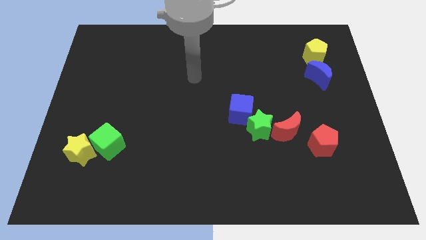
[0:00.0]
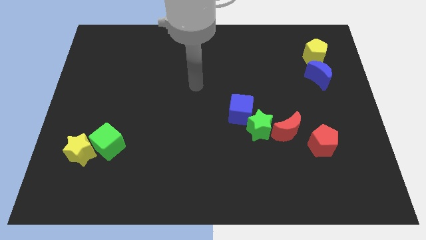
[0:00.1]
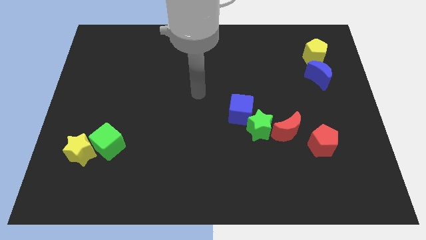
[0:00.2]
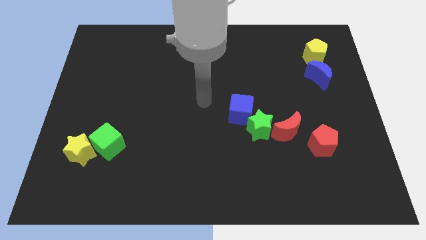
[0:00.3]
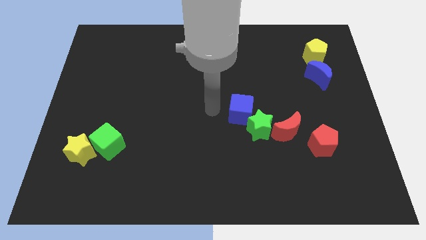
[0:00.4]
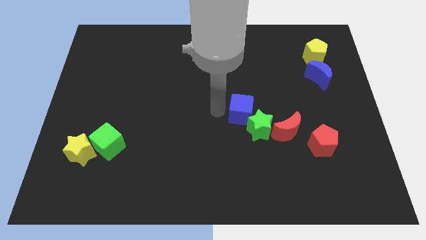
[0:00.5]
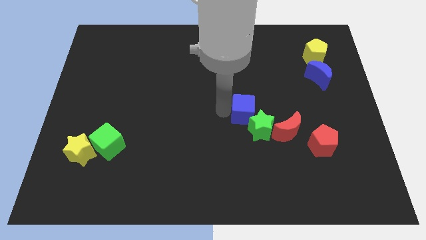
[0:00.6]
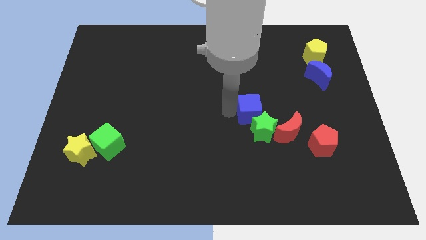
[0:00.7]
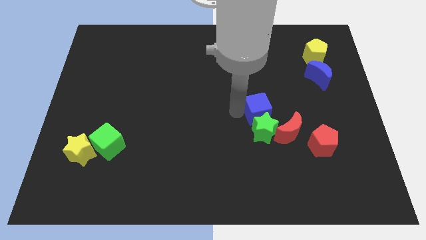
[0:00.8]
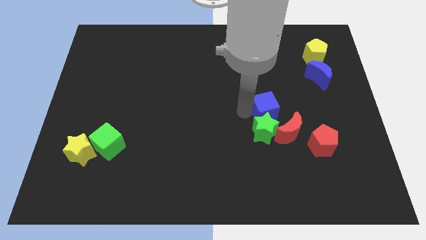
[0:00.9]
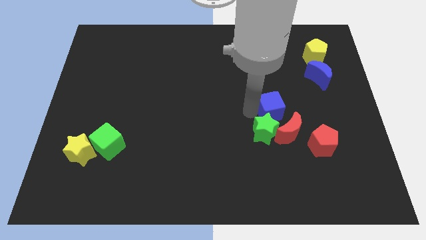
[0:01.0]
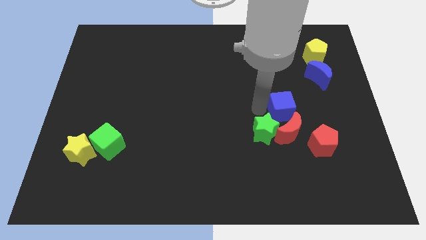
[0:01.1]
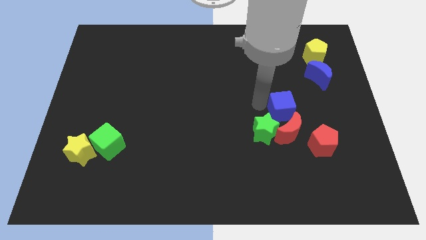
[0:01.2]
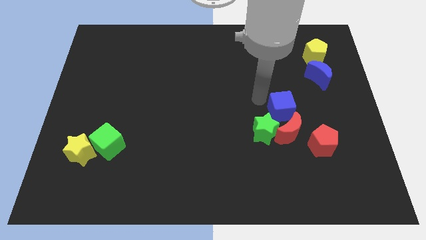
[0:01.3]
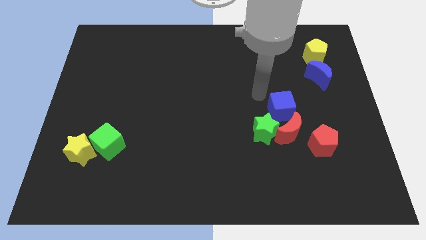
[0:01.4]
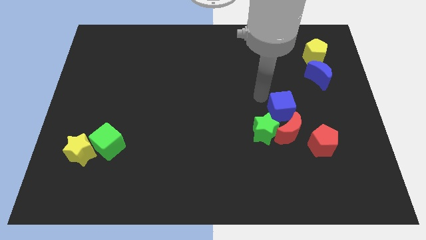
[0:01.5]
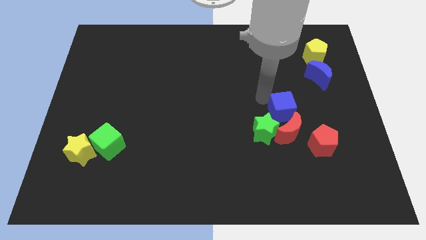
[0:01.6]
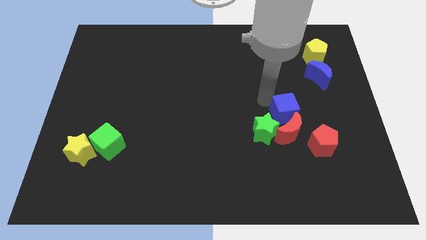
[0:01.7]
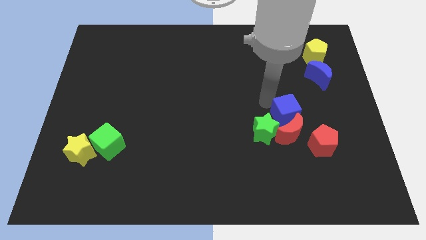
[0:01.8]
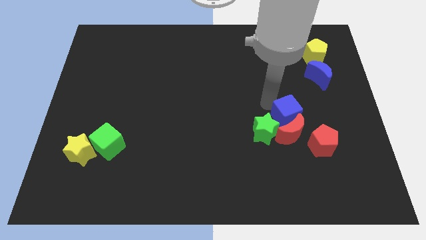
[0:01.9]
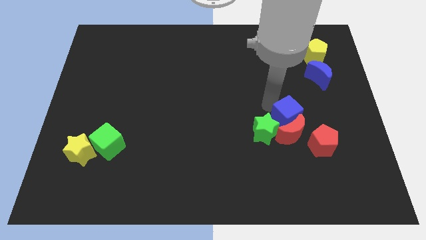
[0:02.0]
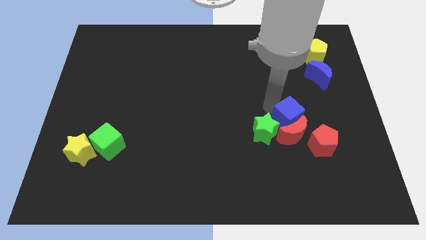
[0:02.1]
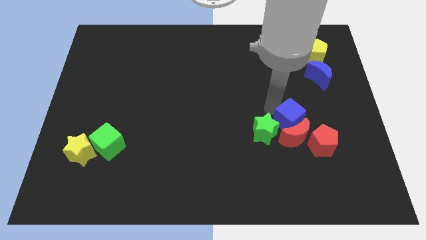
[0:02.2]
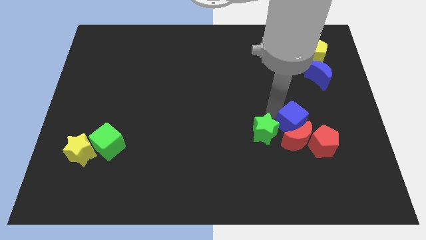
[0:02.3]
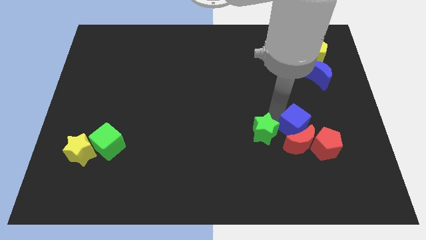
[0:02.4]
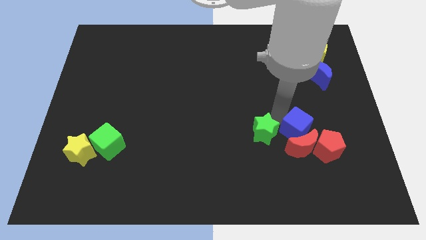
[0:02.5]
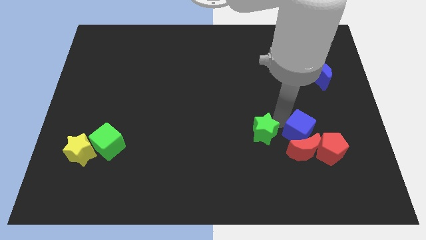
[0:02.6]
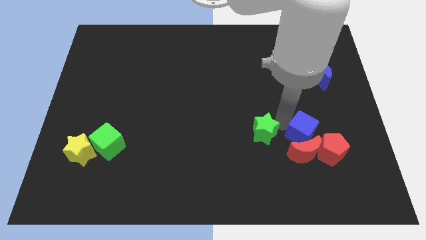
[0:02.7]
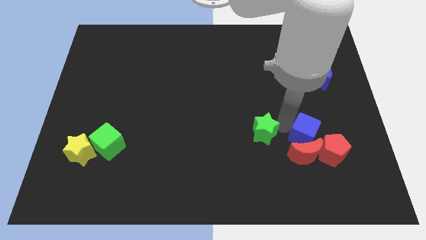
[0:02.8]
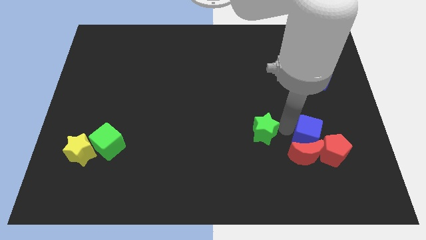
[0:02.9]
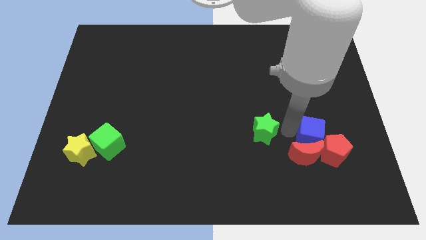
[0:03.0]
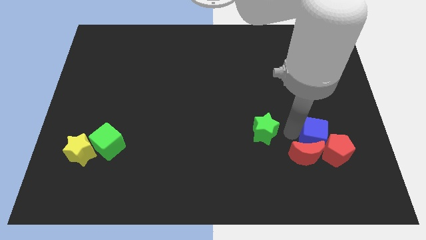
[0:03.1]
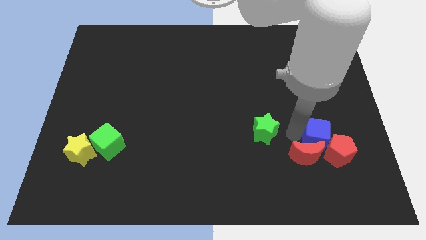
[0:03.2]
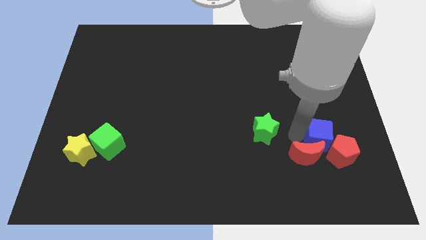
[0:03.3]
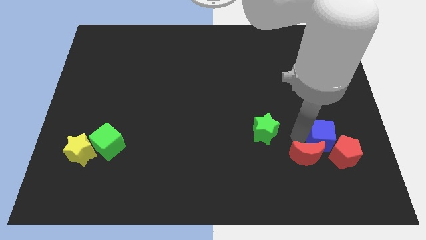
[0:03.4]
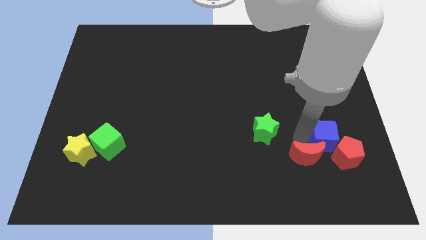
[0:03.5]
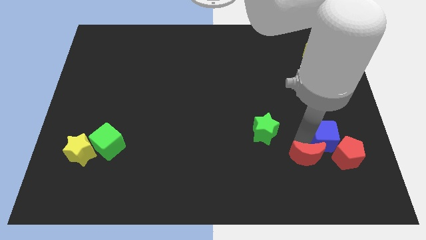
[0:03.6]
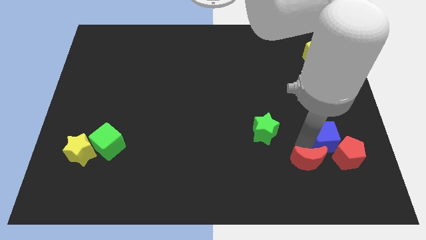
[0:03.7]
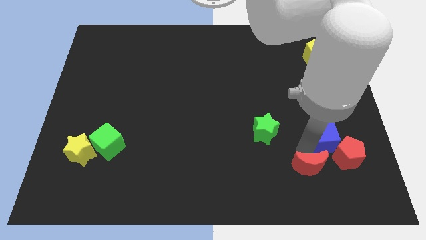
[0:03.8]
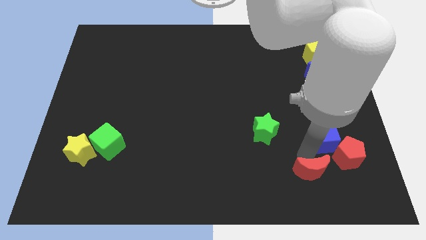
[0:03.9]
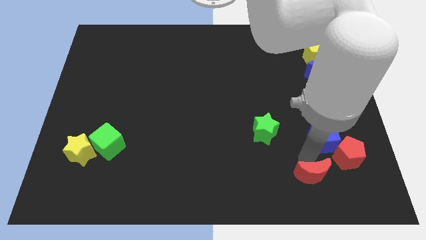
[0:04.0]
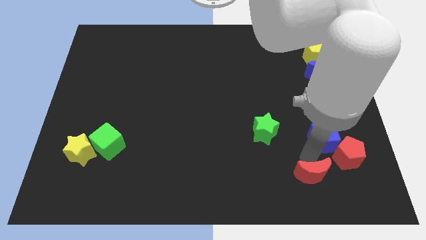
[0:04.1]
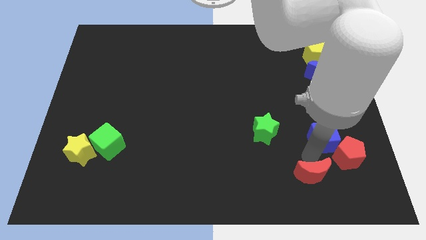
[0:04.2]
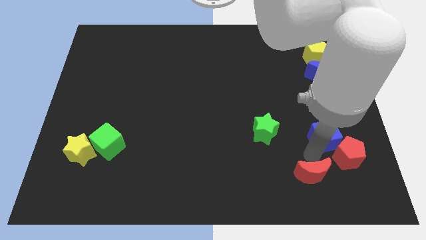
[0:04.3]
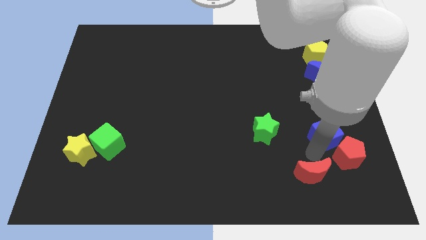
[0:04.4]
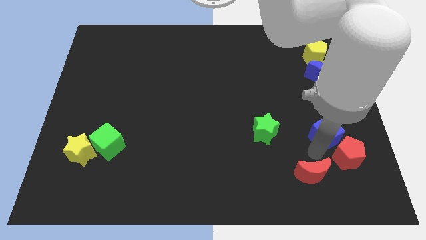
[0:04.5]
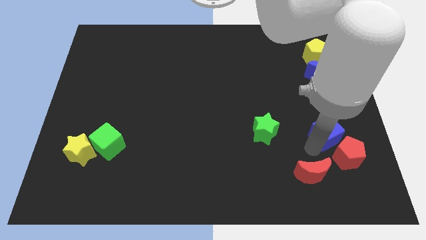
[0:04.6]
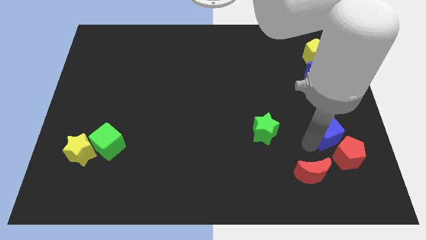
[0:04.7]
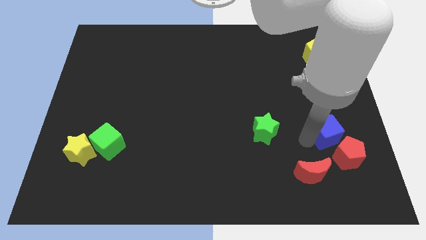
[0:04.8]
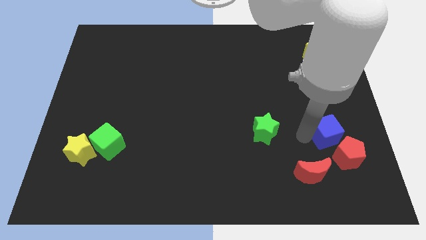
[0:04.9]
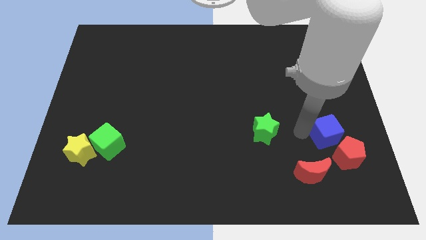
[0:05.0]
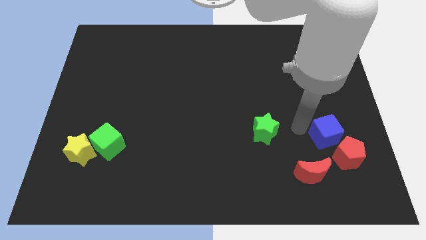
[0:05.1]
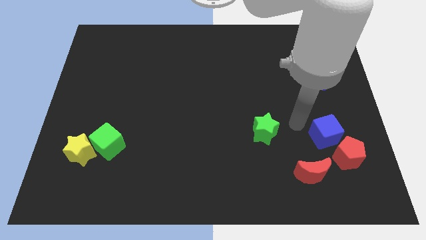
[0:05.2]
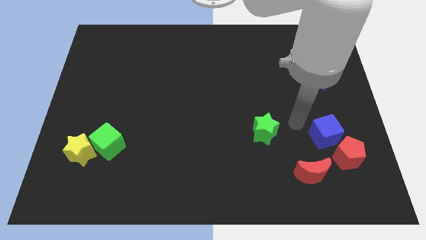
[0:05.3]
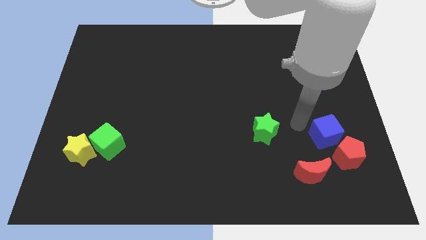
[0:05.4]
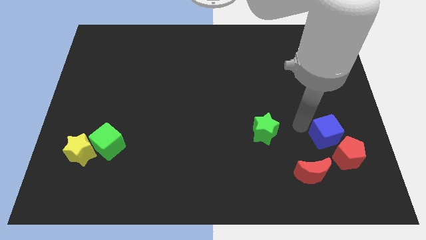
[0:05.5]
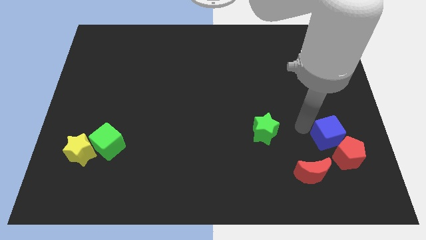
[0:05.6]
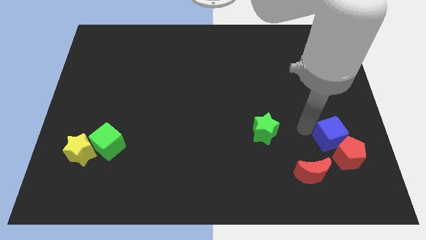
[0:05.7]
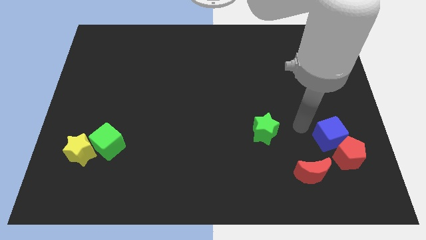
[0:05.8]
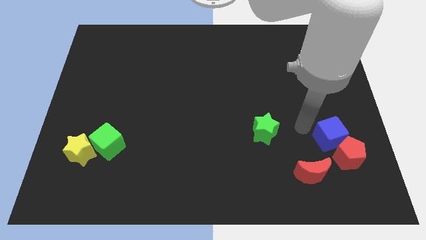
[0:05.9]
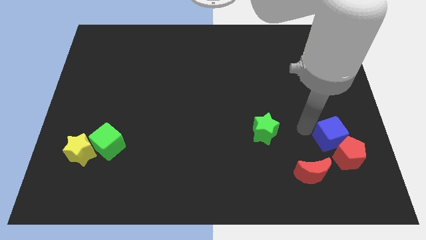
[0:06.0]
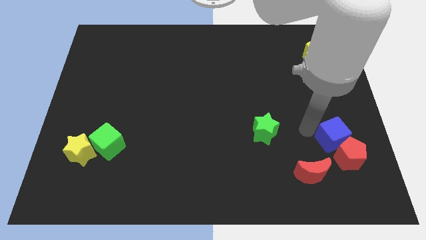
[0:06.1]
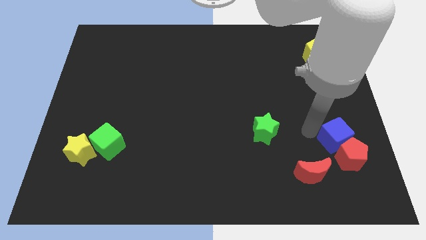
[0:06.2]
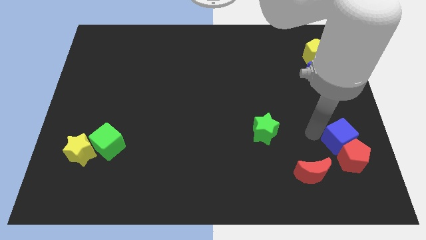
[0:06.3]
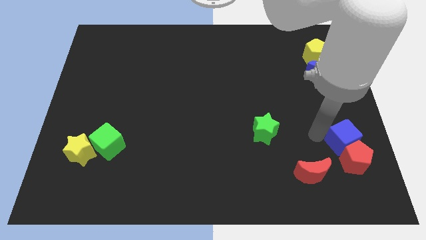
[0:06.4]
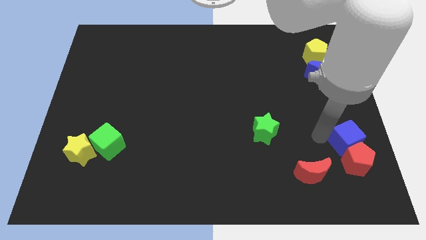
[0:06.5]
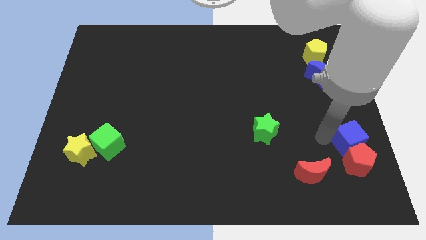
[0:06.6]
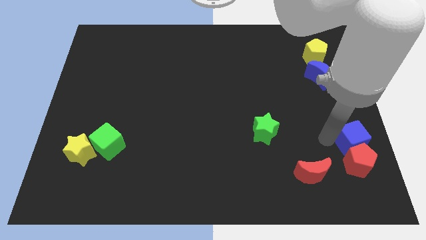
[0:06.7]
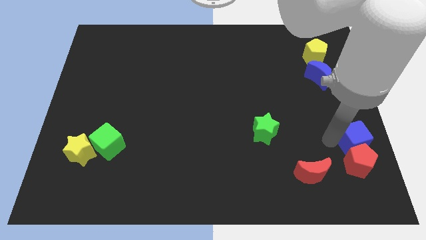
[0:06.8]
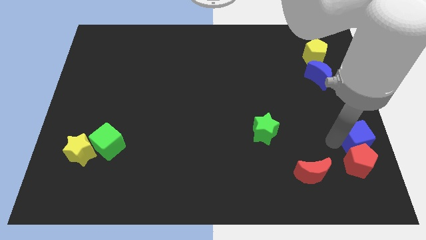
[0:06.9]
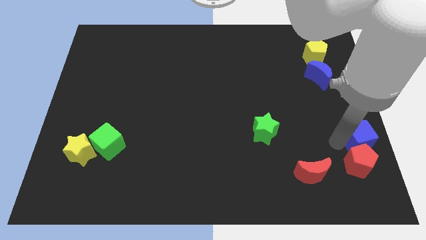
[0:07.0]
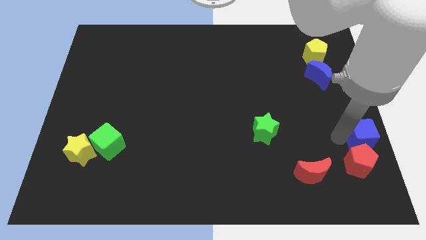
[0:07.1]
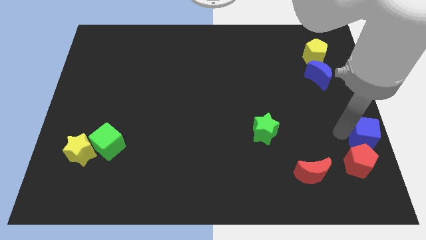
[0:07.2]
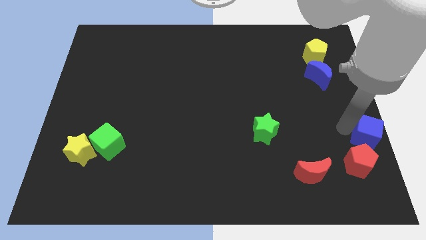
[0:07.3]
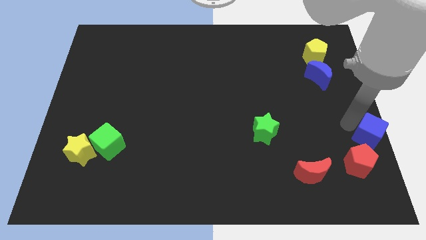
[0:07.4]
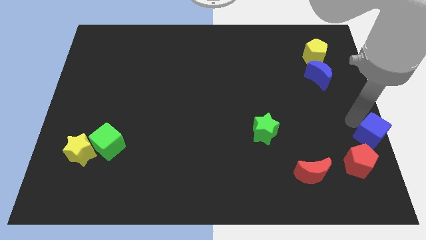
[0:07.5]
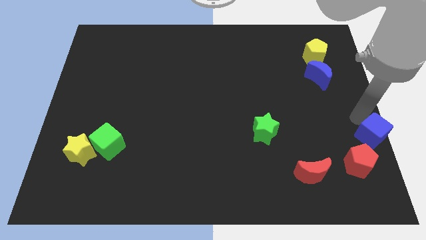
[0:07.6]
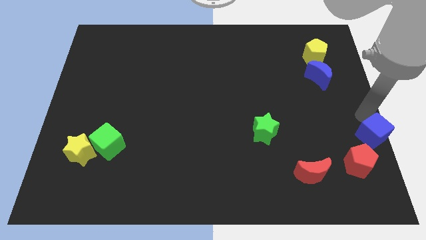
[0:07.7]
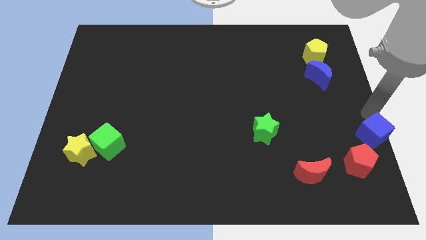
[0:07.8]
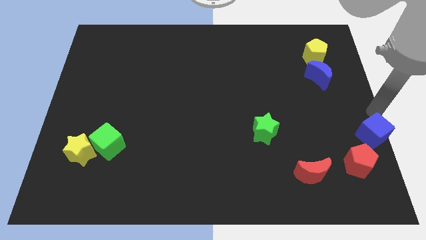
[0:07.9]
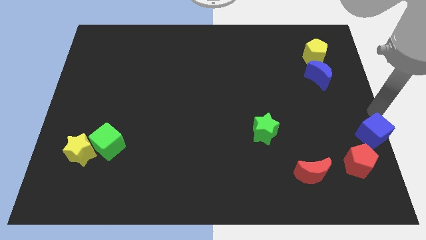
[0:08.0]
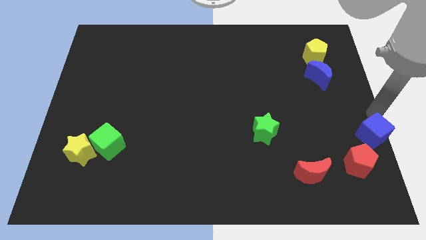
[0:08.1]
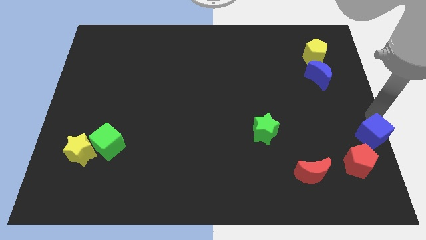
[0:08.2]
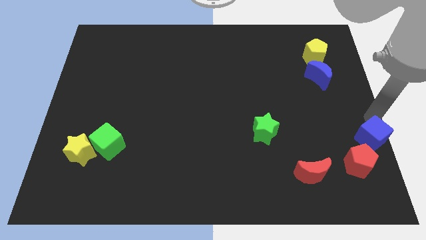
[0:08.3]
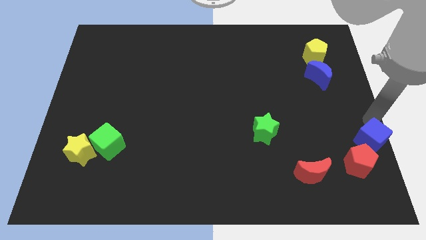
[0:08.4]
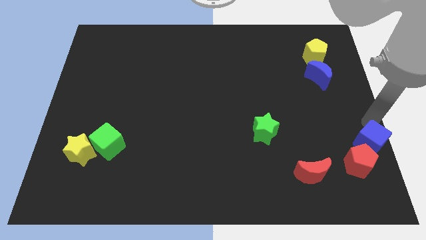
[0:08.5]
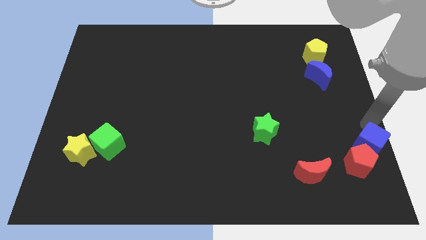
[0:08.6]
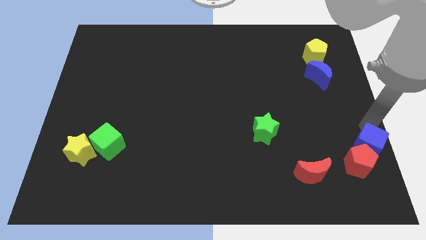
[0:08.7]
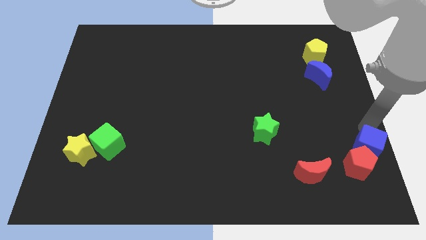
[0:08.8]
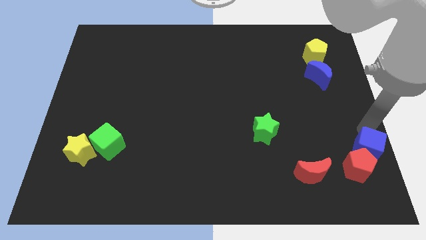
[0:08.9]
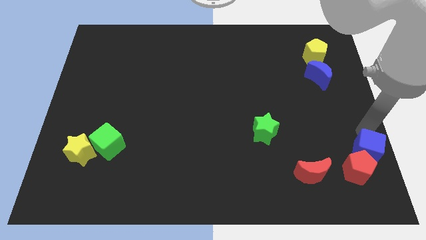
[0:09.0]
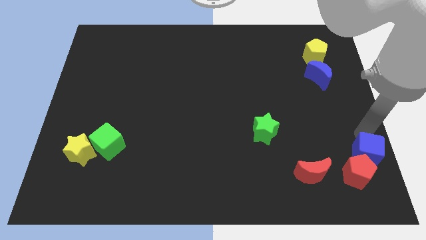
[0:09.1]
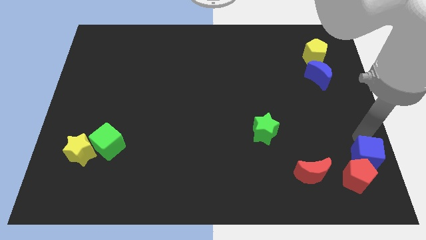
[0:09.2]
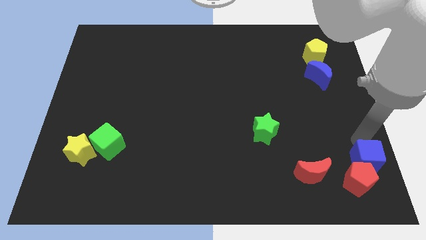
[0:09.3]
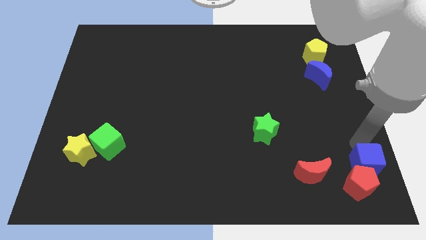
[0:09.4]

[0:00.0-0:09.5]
slide the blue cube to the lower right corner
